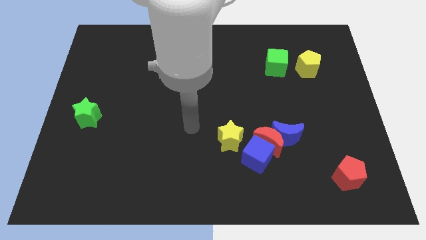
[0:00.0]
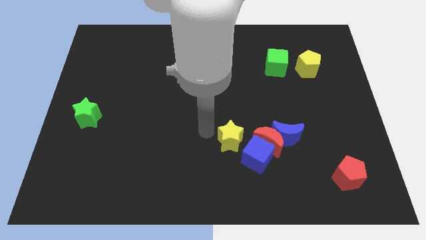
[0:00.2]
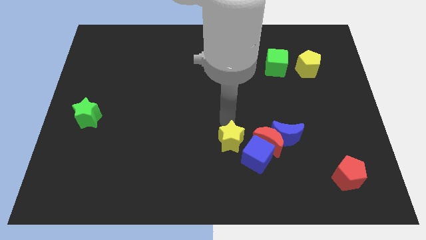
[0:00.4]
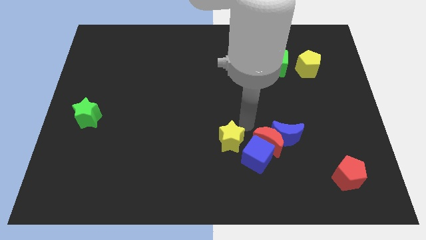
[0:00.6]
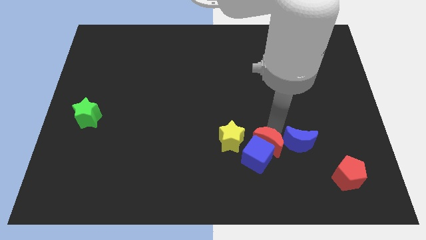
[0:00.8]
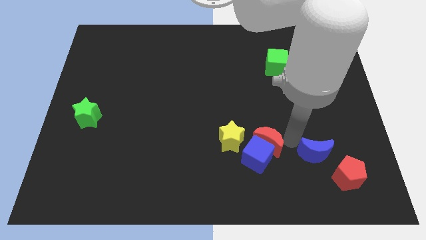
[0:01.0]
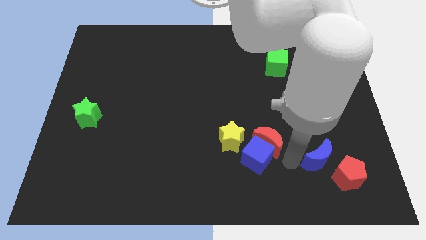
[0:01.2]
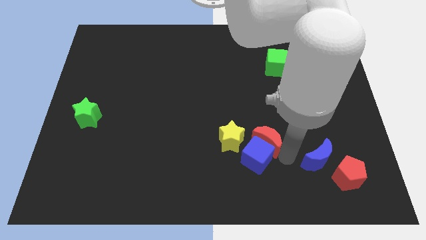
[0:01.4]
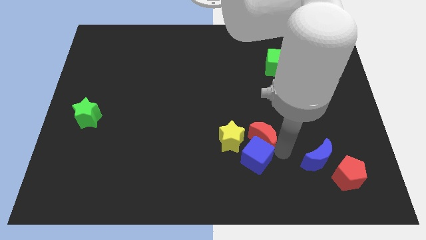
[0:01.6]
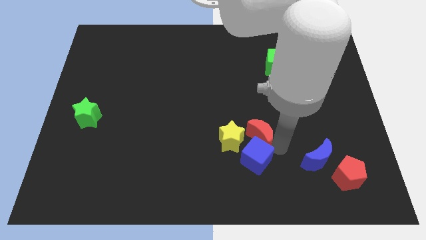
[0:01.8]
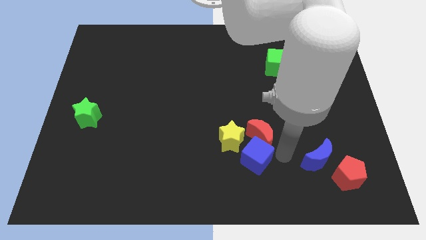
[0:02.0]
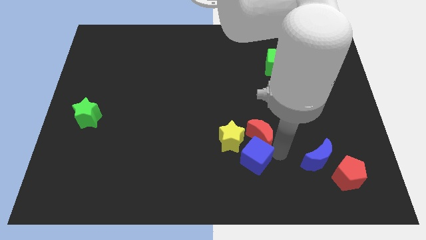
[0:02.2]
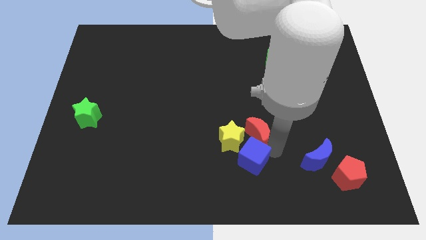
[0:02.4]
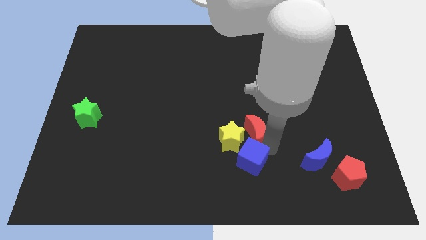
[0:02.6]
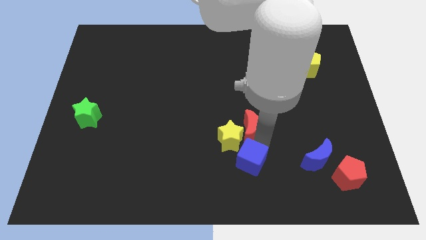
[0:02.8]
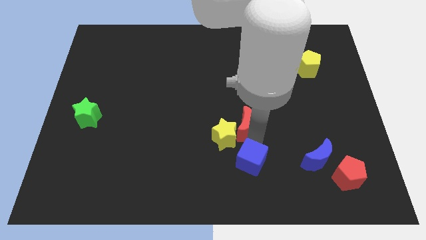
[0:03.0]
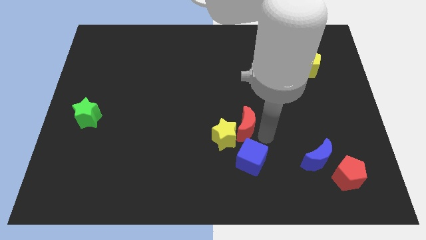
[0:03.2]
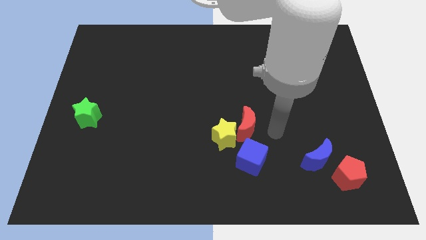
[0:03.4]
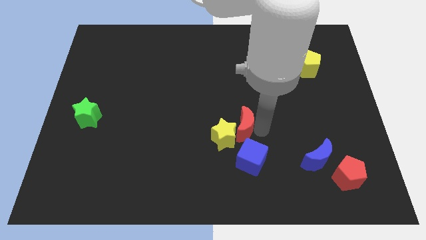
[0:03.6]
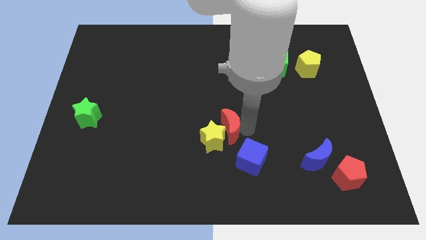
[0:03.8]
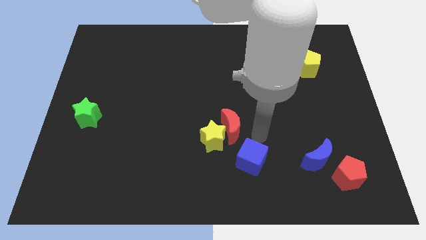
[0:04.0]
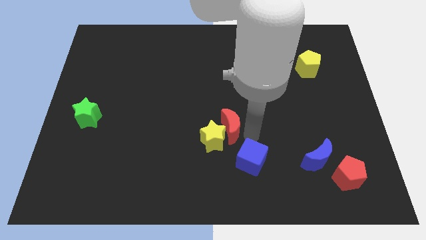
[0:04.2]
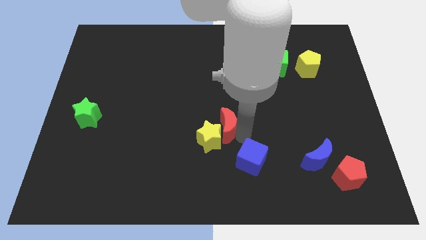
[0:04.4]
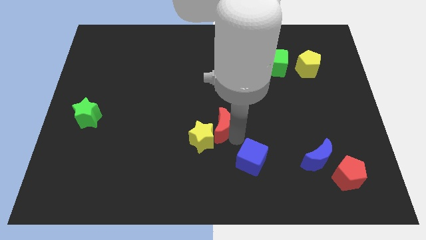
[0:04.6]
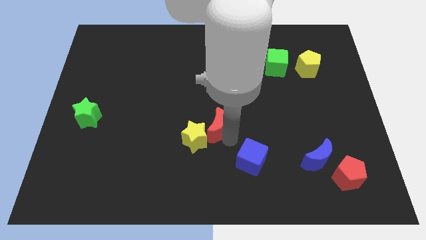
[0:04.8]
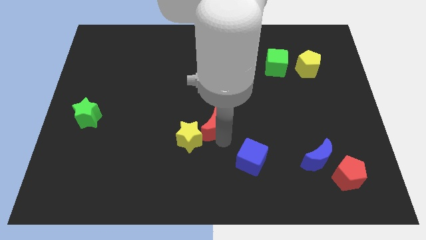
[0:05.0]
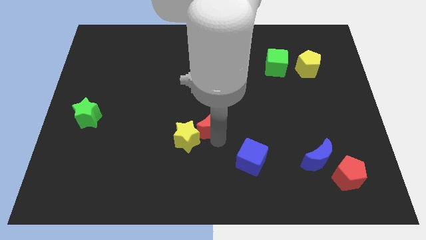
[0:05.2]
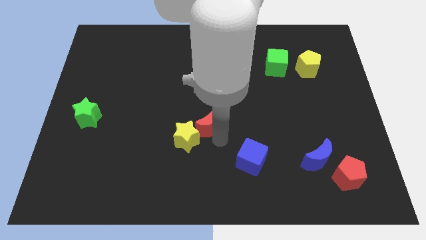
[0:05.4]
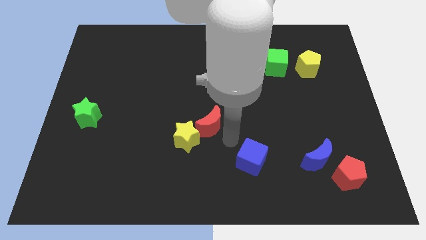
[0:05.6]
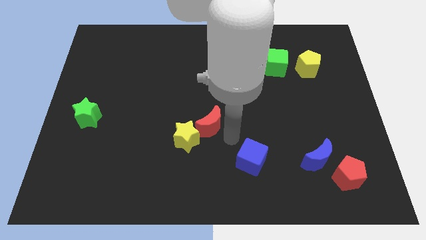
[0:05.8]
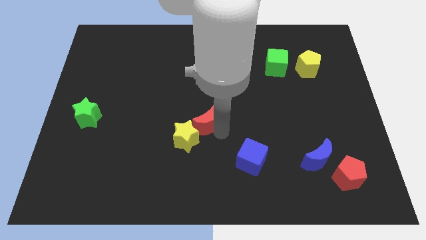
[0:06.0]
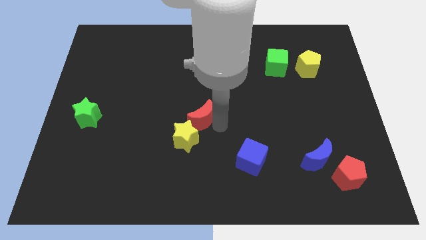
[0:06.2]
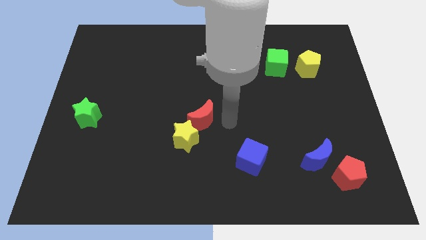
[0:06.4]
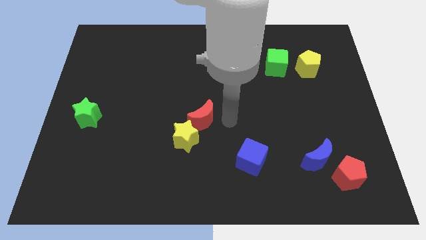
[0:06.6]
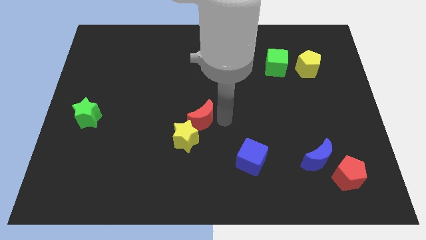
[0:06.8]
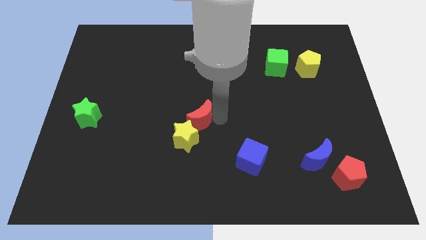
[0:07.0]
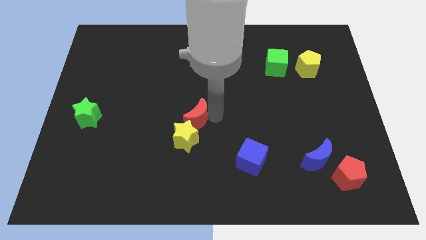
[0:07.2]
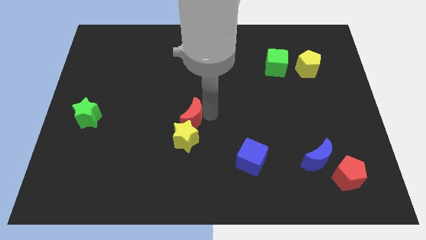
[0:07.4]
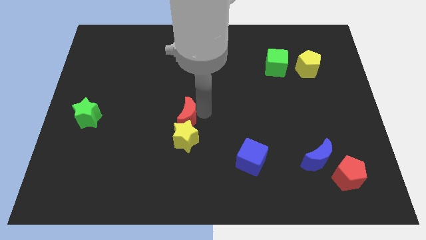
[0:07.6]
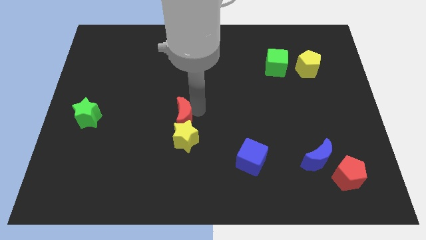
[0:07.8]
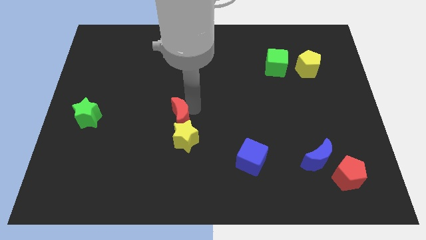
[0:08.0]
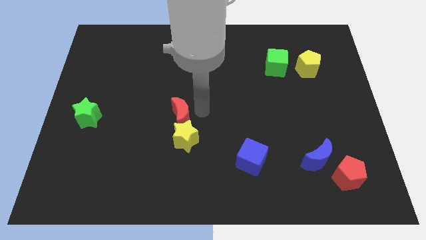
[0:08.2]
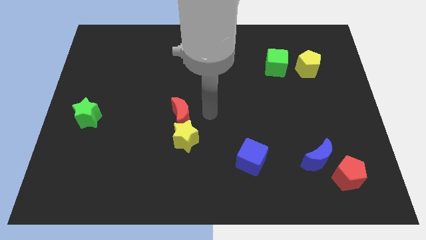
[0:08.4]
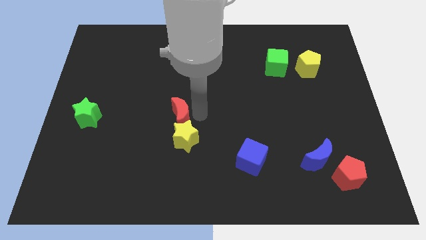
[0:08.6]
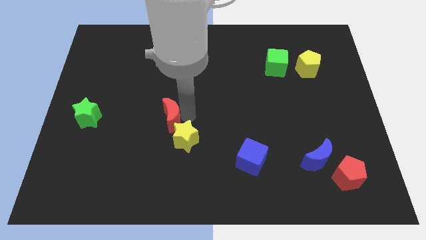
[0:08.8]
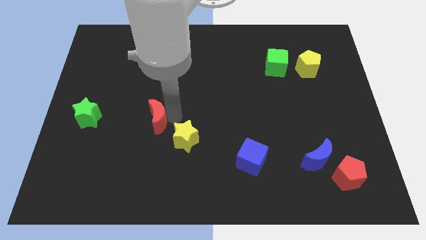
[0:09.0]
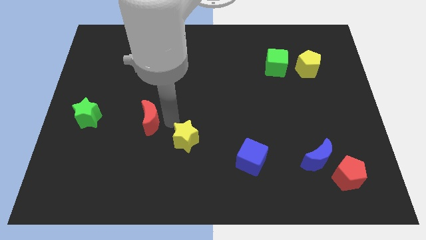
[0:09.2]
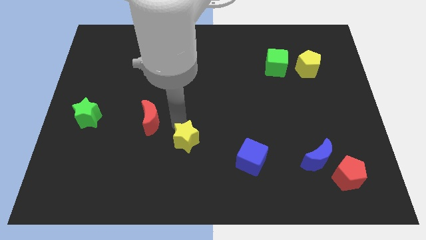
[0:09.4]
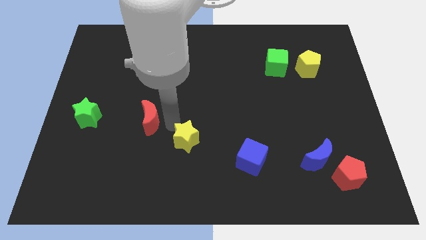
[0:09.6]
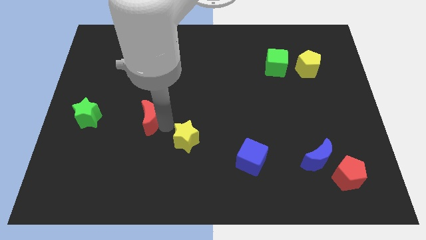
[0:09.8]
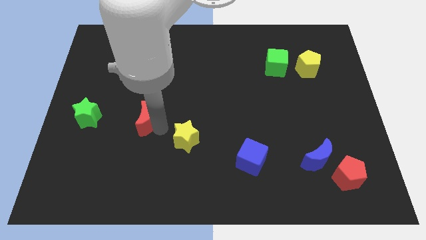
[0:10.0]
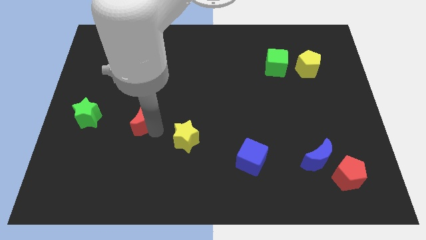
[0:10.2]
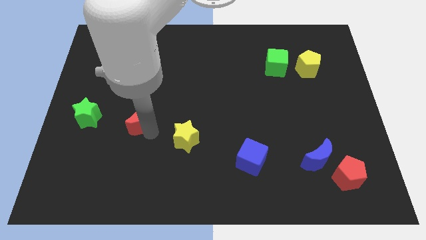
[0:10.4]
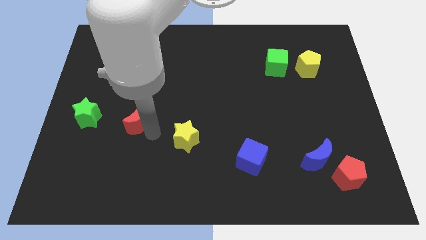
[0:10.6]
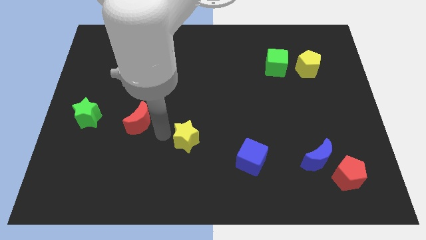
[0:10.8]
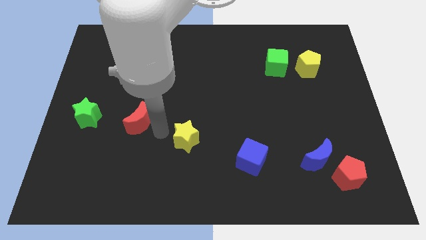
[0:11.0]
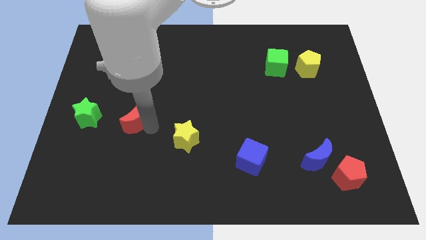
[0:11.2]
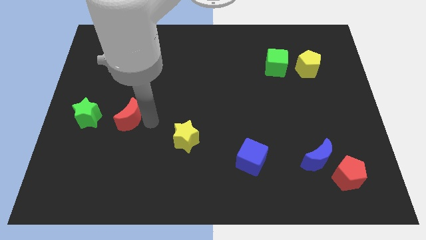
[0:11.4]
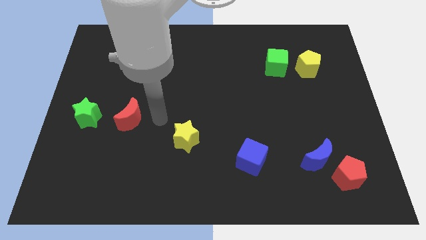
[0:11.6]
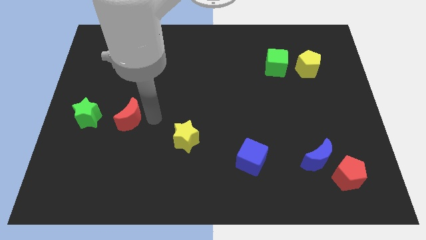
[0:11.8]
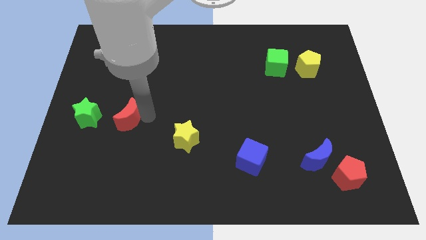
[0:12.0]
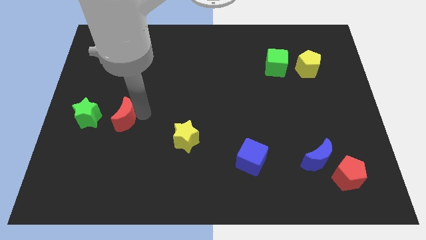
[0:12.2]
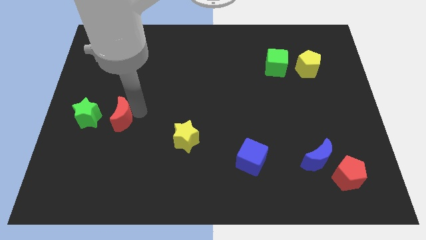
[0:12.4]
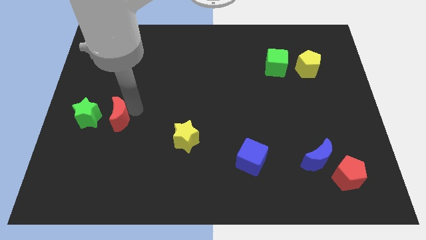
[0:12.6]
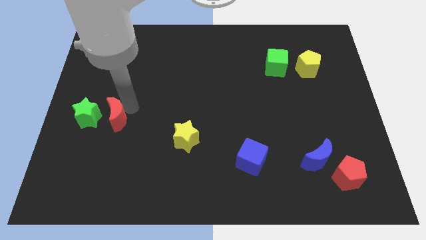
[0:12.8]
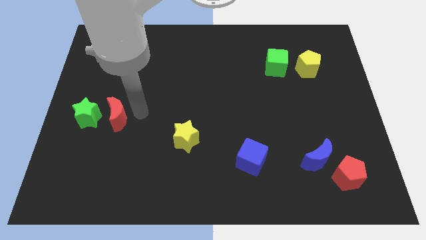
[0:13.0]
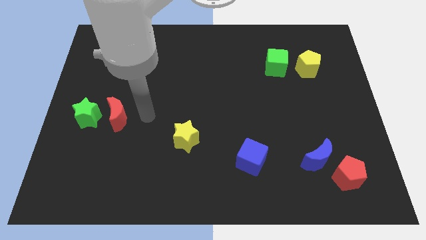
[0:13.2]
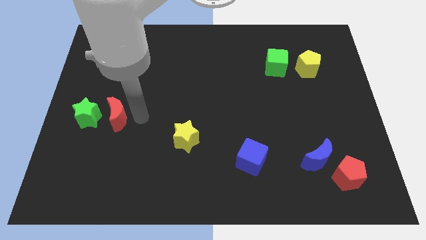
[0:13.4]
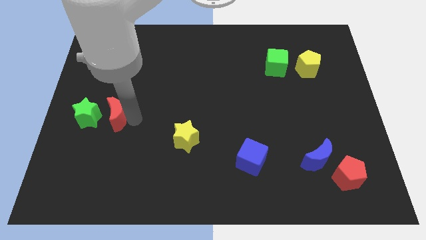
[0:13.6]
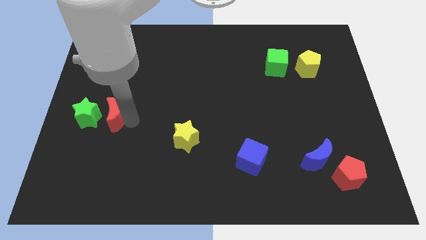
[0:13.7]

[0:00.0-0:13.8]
move the red moon to the green star
